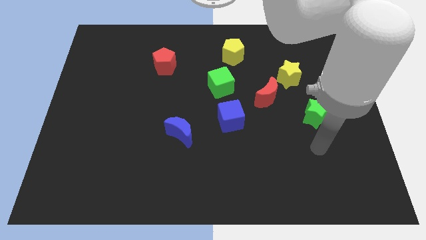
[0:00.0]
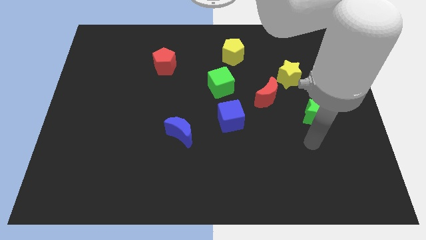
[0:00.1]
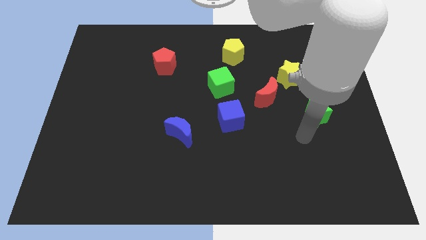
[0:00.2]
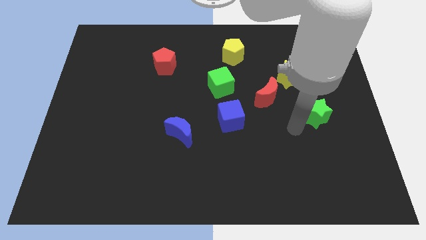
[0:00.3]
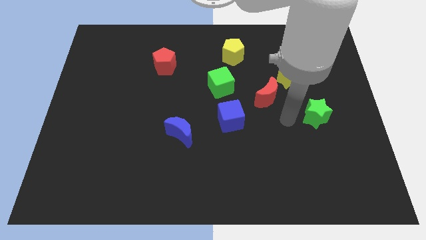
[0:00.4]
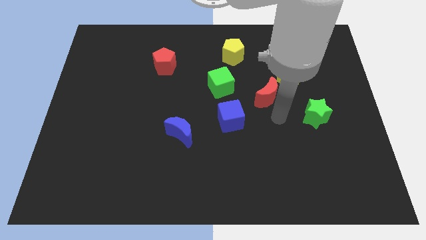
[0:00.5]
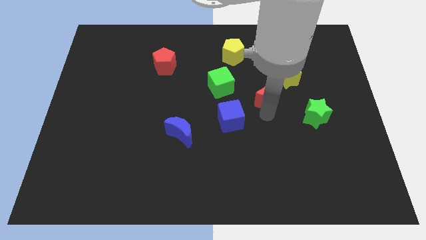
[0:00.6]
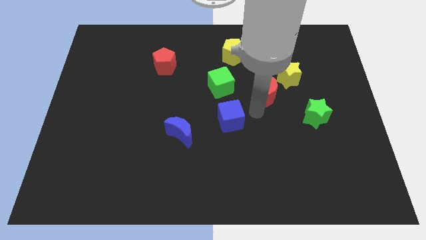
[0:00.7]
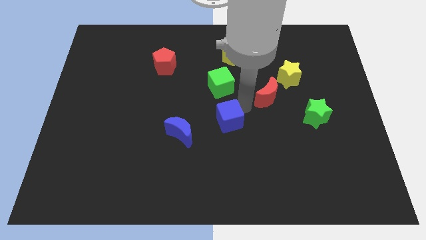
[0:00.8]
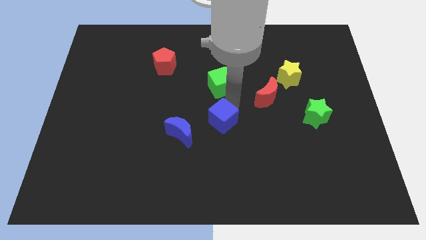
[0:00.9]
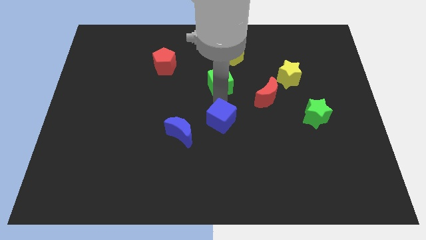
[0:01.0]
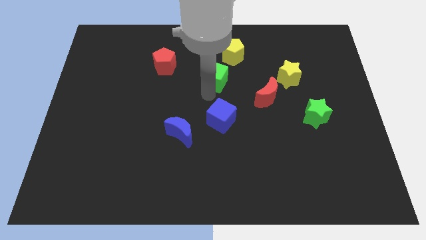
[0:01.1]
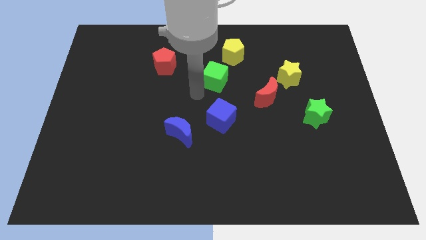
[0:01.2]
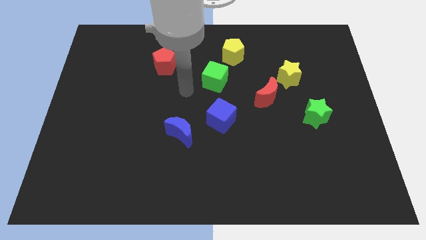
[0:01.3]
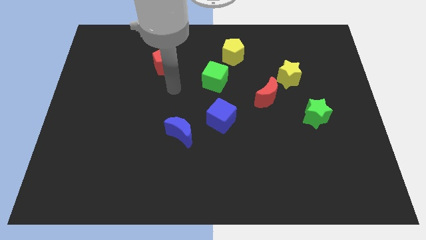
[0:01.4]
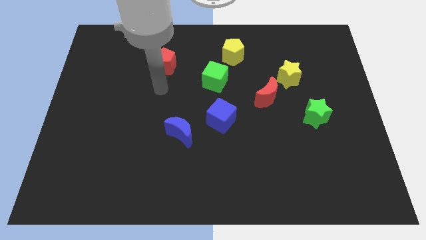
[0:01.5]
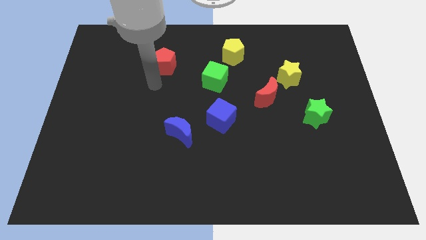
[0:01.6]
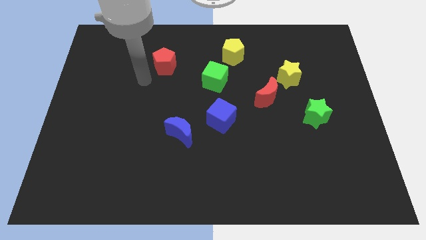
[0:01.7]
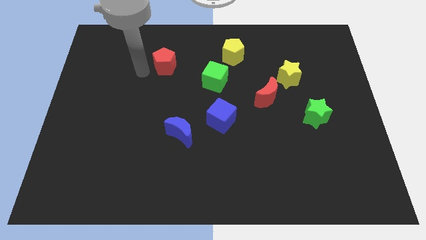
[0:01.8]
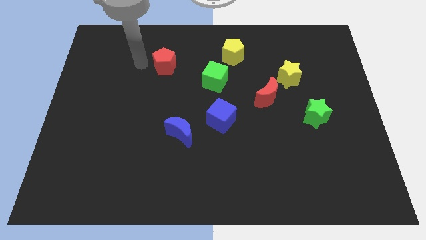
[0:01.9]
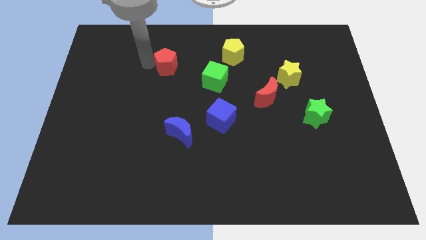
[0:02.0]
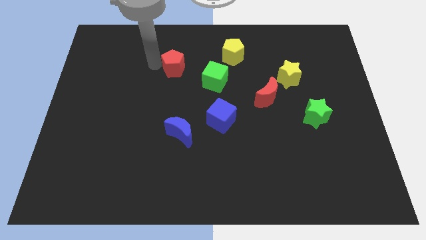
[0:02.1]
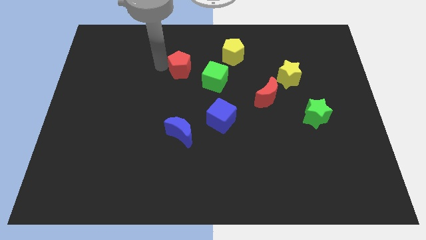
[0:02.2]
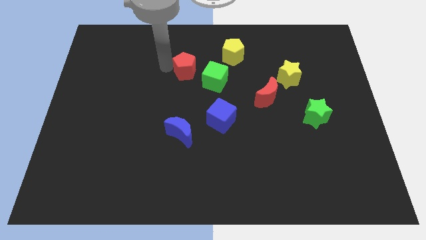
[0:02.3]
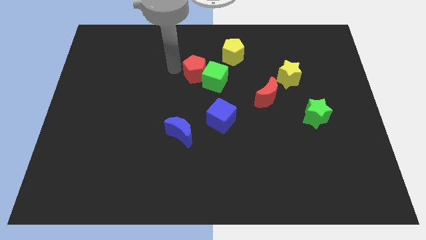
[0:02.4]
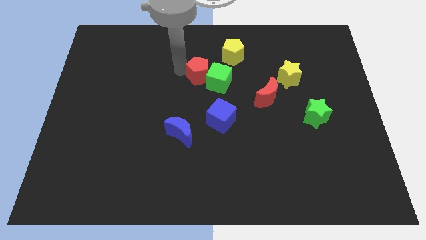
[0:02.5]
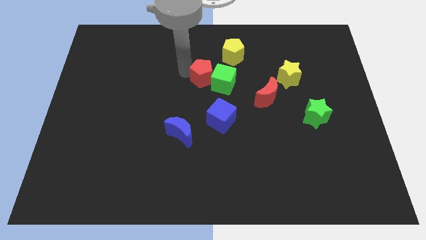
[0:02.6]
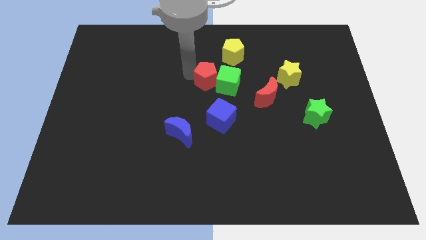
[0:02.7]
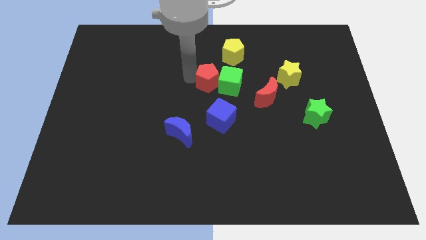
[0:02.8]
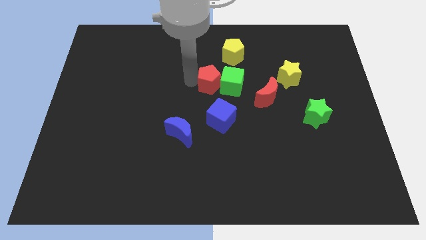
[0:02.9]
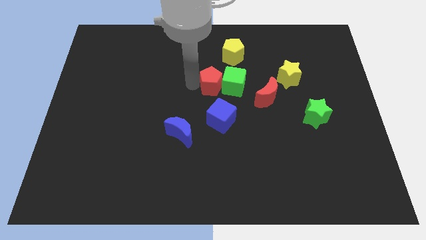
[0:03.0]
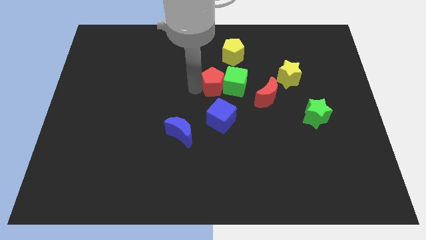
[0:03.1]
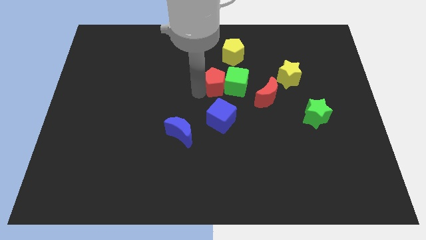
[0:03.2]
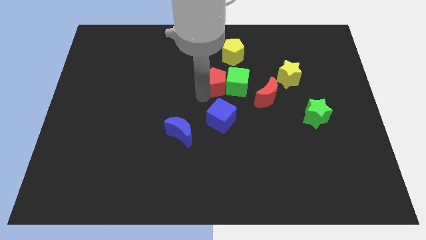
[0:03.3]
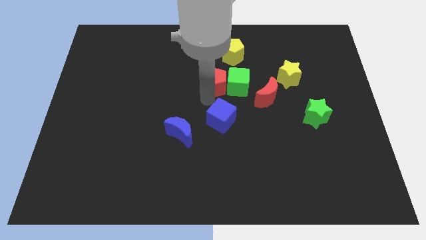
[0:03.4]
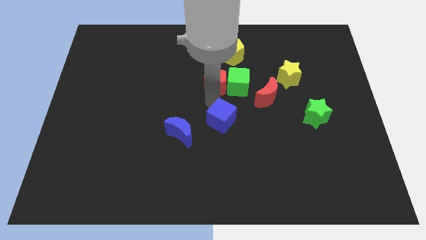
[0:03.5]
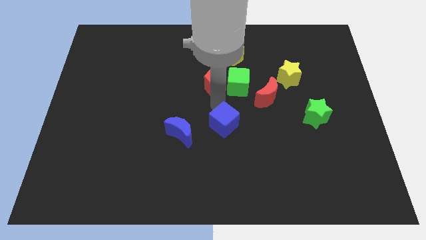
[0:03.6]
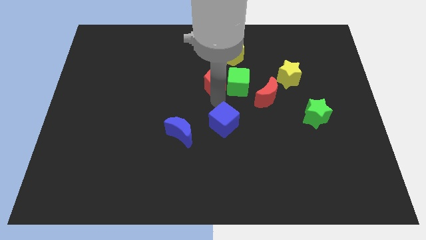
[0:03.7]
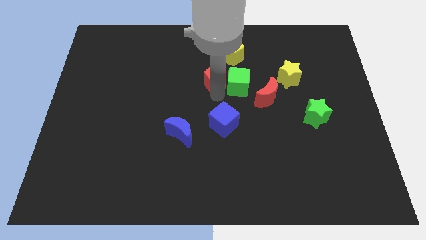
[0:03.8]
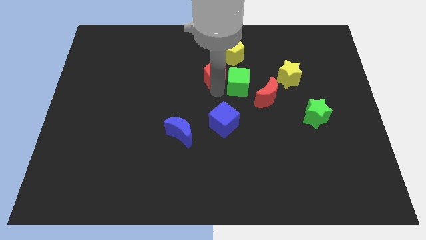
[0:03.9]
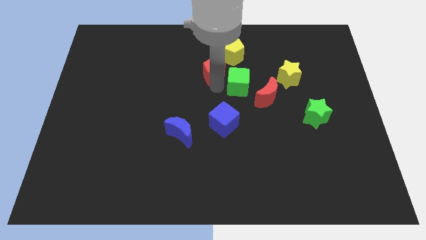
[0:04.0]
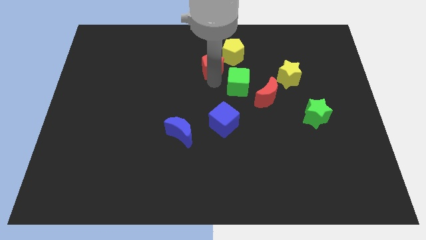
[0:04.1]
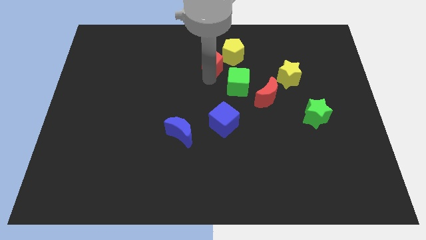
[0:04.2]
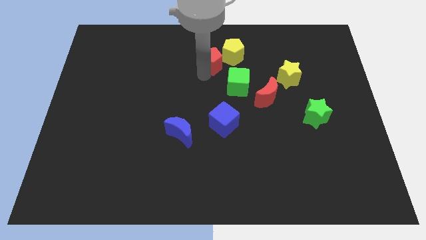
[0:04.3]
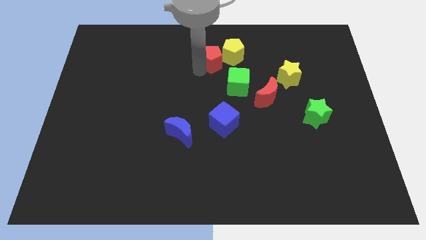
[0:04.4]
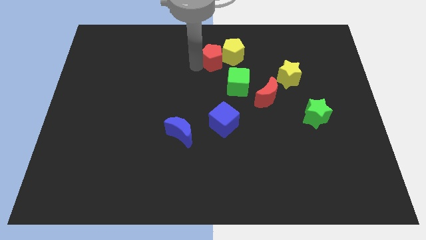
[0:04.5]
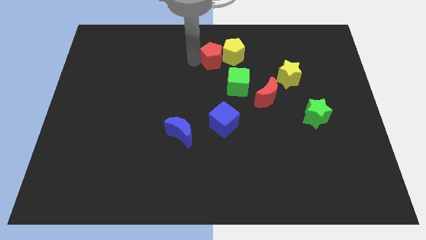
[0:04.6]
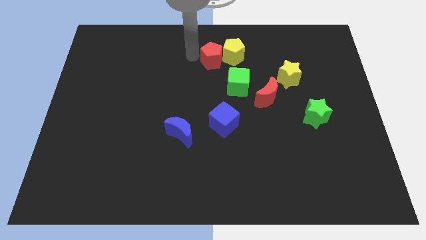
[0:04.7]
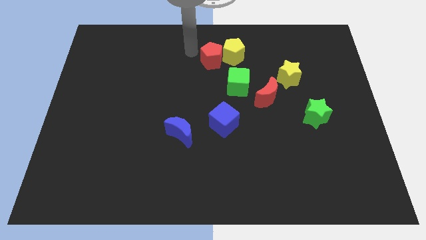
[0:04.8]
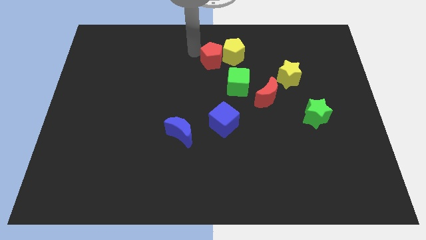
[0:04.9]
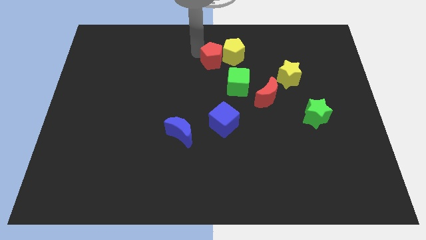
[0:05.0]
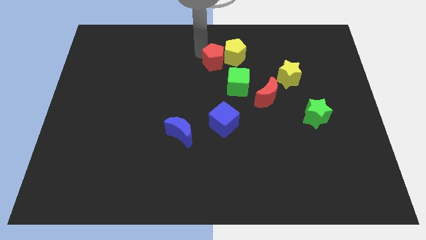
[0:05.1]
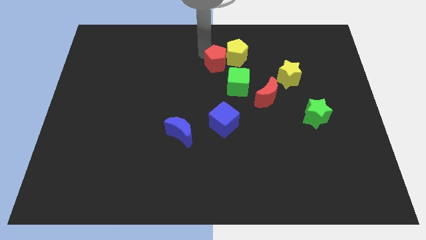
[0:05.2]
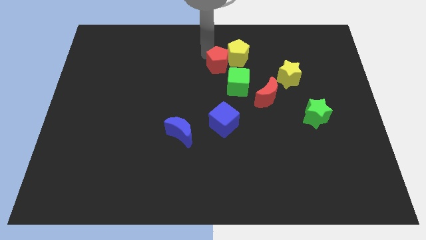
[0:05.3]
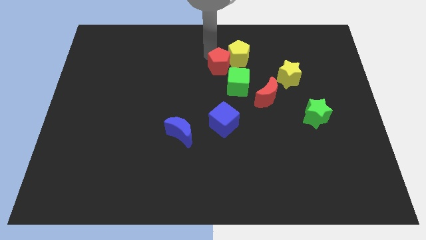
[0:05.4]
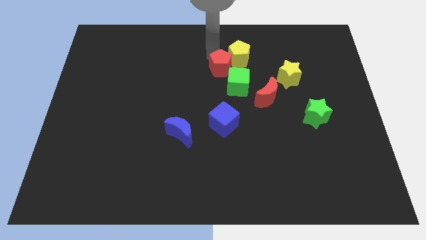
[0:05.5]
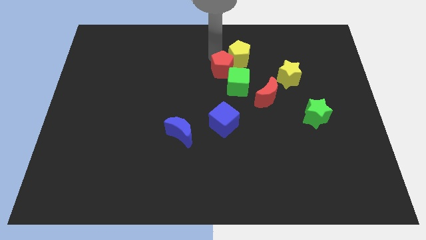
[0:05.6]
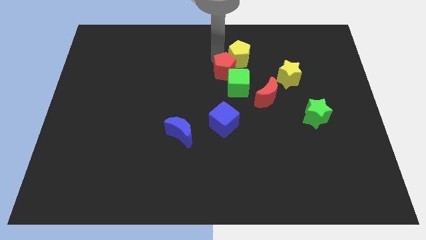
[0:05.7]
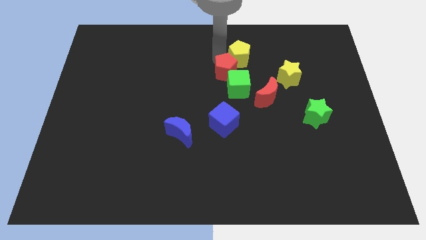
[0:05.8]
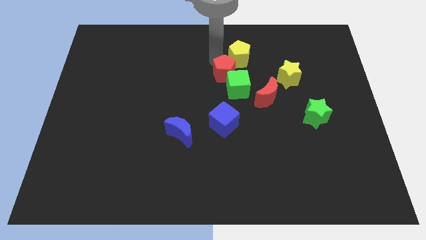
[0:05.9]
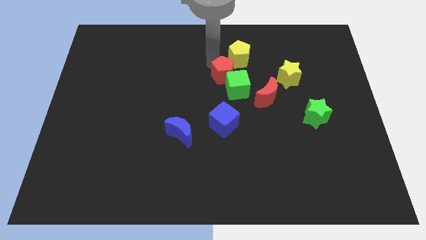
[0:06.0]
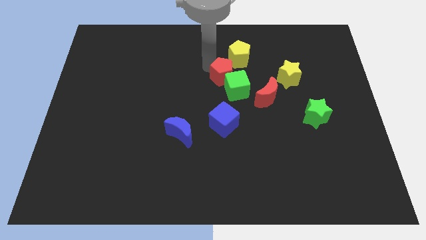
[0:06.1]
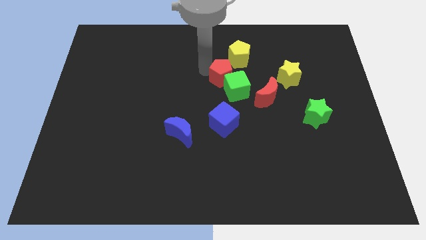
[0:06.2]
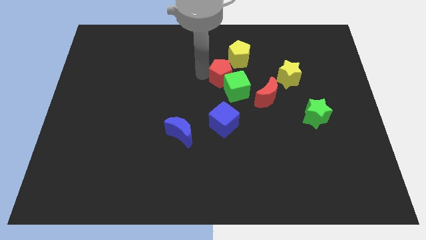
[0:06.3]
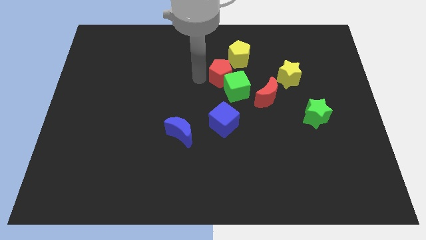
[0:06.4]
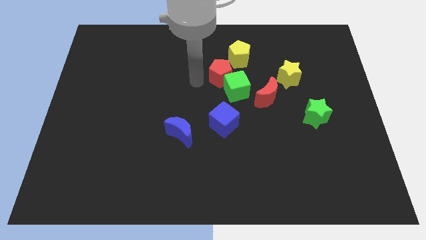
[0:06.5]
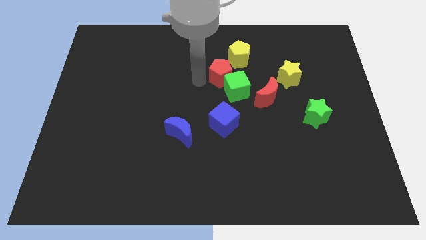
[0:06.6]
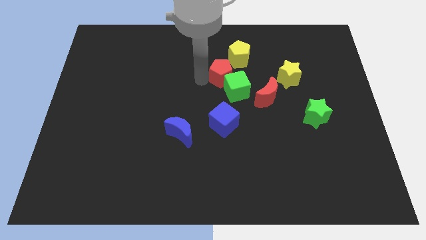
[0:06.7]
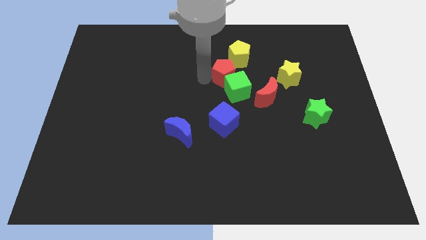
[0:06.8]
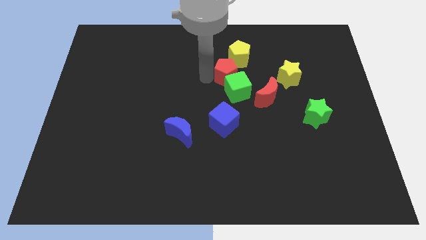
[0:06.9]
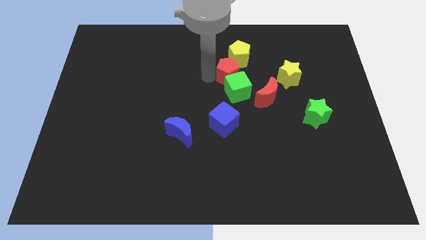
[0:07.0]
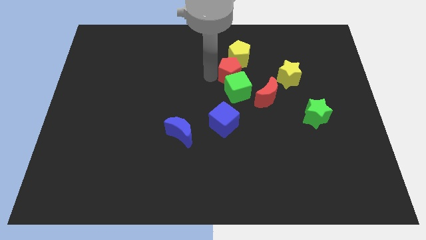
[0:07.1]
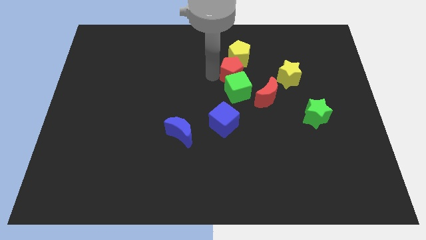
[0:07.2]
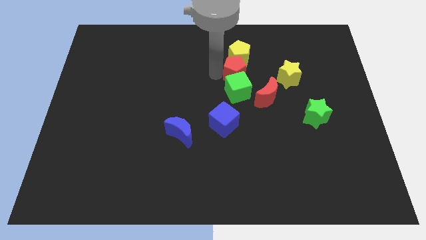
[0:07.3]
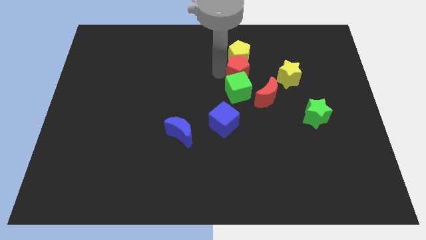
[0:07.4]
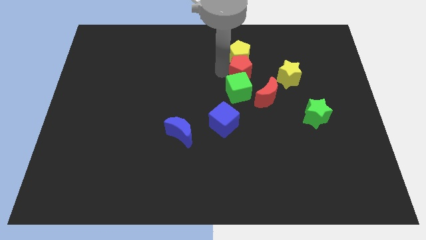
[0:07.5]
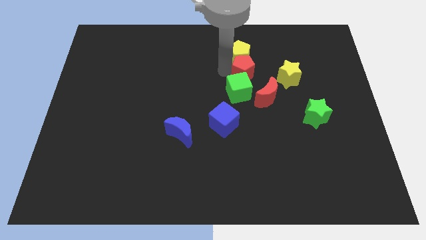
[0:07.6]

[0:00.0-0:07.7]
slide the red pentagon right
